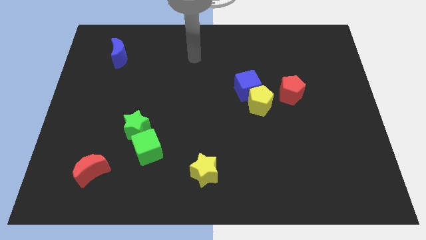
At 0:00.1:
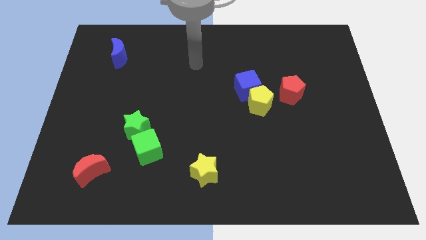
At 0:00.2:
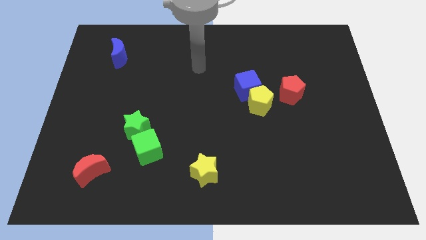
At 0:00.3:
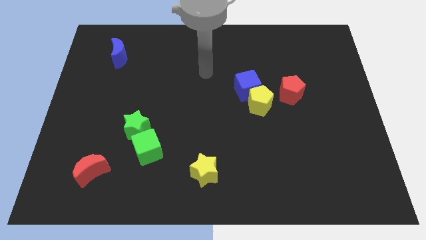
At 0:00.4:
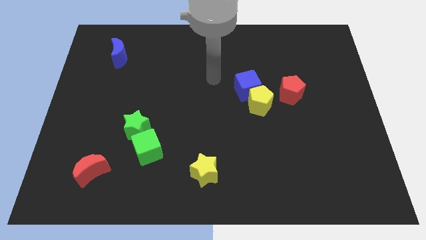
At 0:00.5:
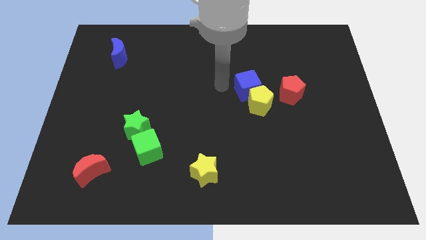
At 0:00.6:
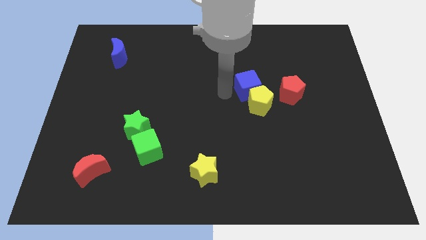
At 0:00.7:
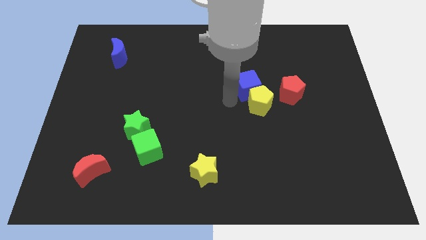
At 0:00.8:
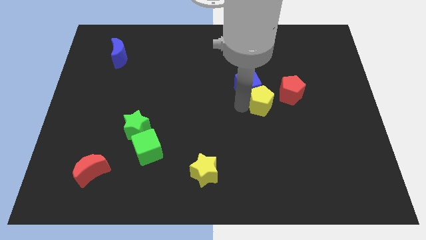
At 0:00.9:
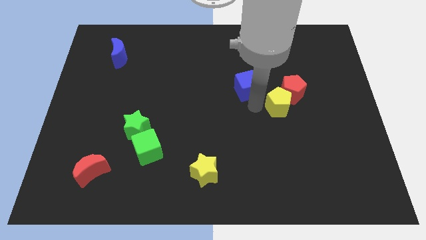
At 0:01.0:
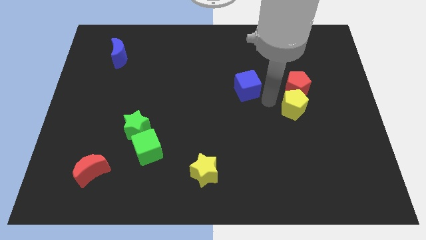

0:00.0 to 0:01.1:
move the blue cube away from the yellow pentagon

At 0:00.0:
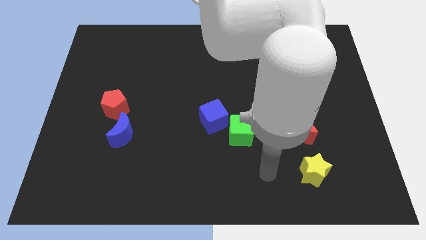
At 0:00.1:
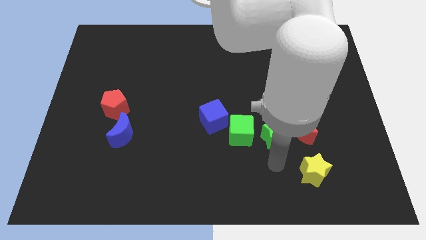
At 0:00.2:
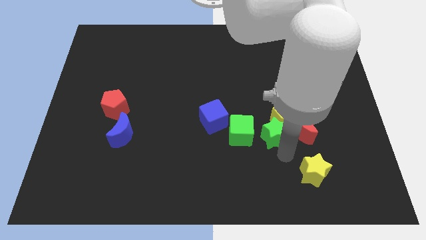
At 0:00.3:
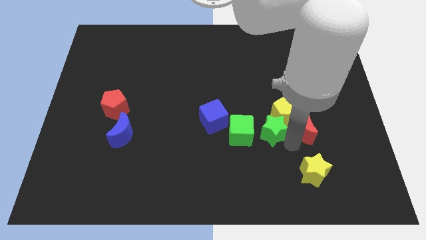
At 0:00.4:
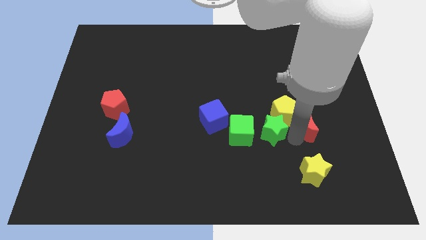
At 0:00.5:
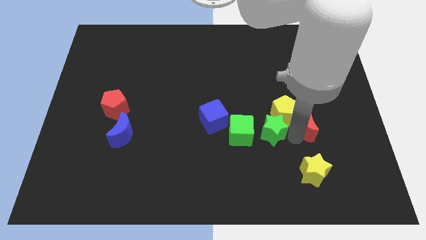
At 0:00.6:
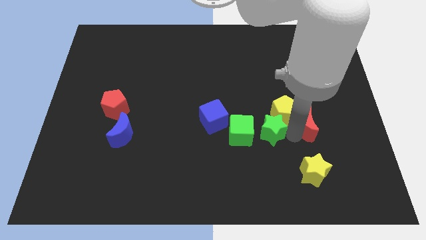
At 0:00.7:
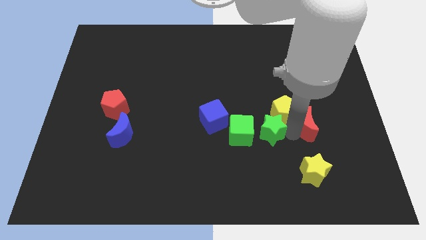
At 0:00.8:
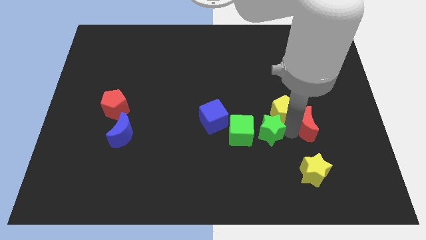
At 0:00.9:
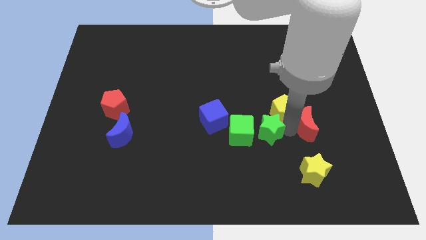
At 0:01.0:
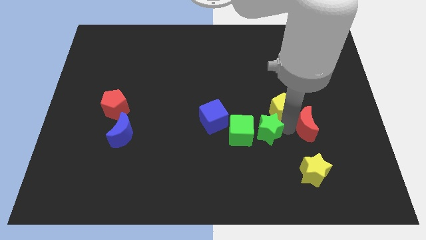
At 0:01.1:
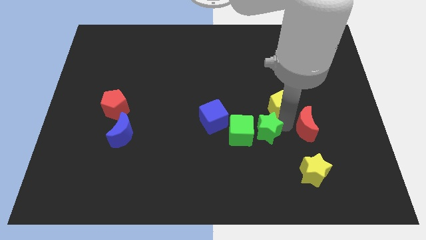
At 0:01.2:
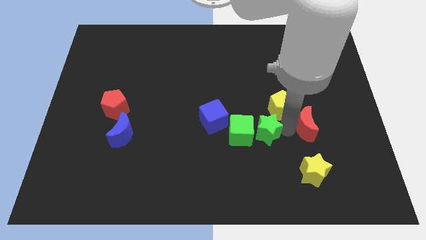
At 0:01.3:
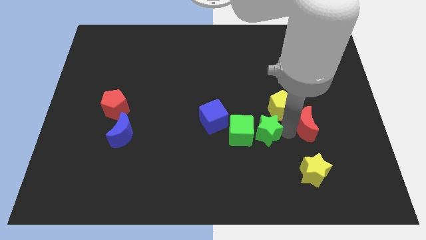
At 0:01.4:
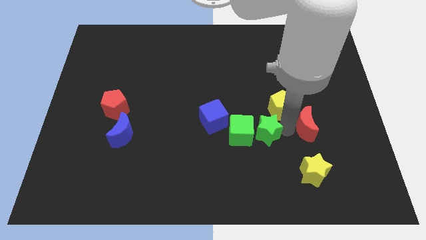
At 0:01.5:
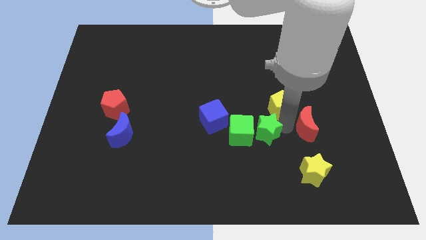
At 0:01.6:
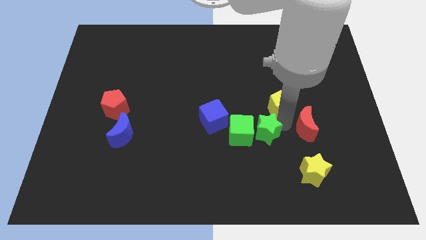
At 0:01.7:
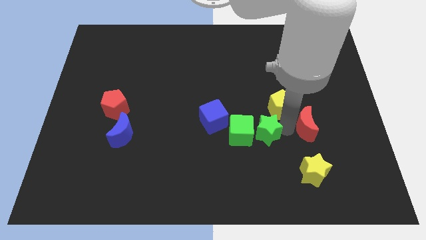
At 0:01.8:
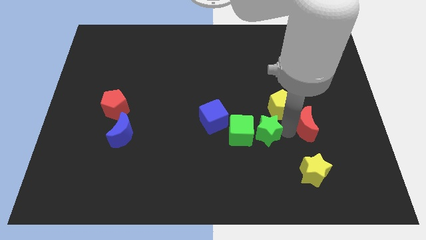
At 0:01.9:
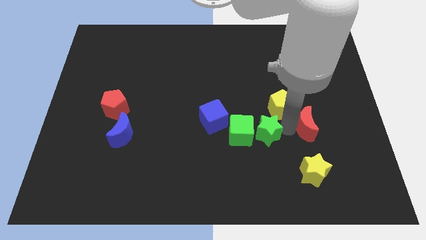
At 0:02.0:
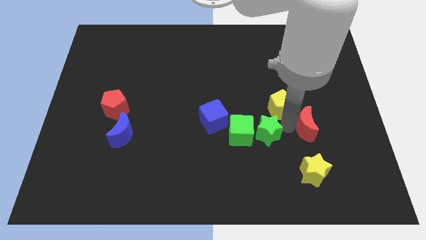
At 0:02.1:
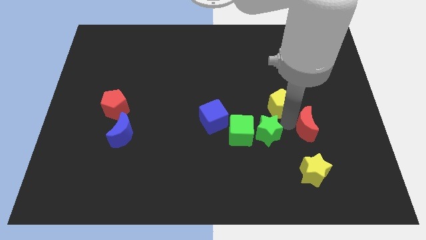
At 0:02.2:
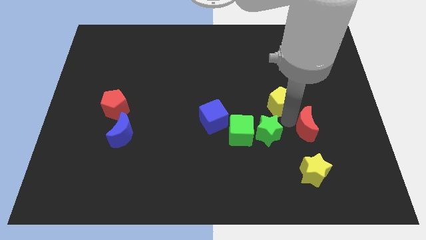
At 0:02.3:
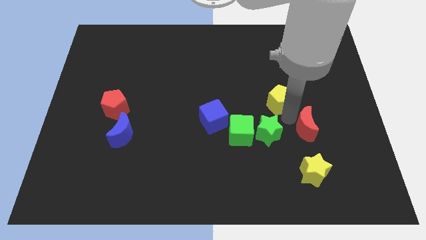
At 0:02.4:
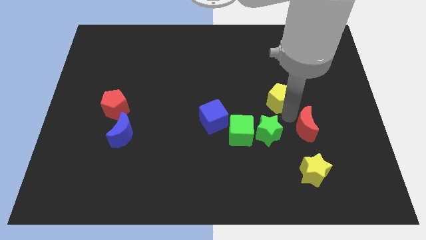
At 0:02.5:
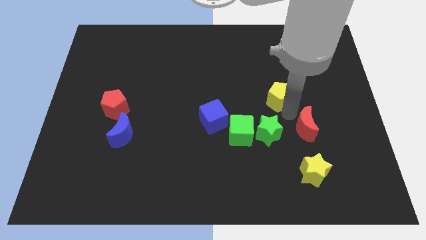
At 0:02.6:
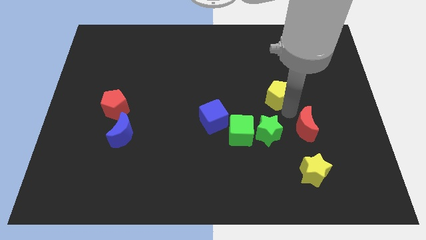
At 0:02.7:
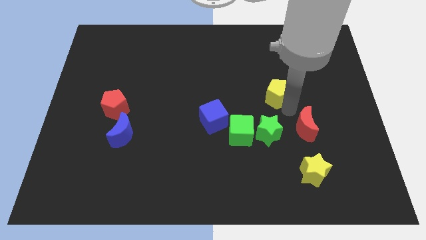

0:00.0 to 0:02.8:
separate the yellow pentagon from the red moon and green star

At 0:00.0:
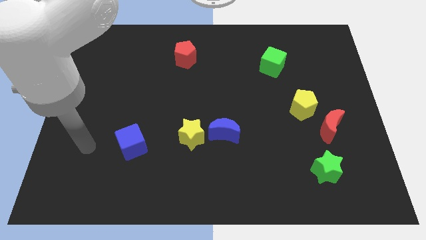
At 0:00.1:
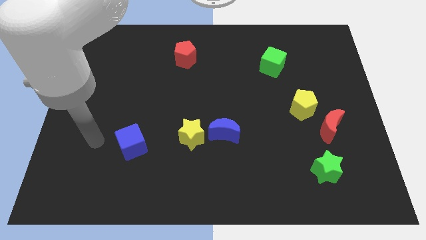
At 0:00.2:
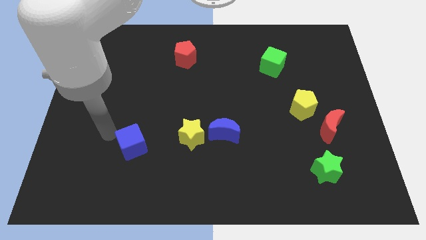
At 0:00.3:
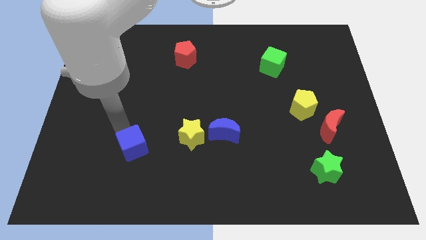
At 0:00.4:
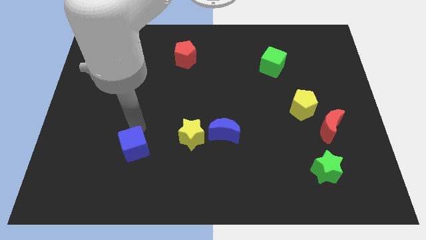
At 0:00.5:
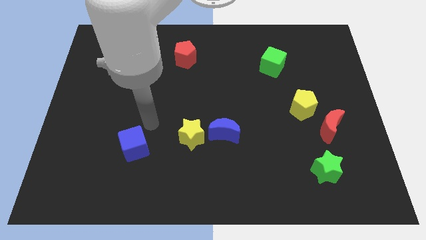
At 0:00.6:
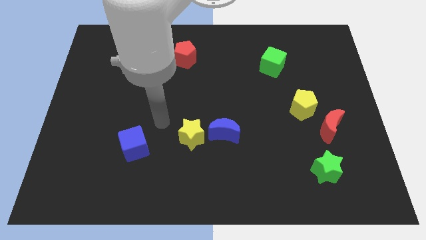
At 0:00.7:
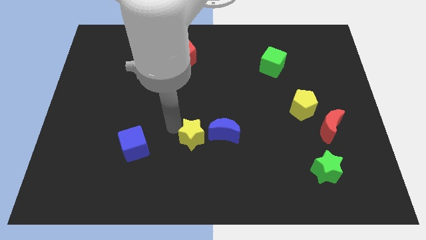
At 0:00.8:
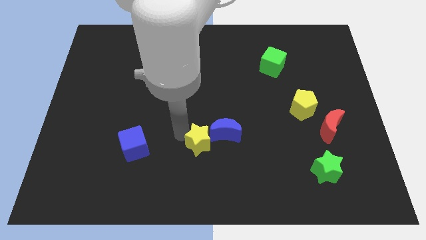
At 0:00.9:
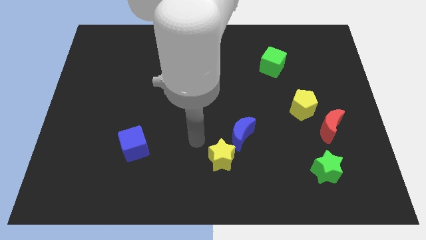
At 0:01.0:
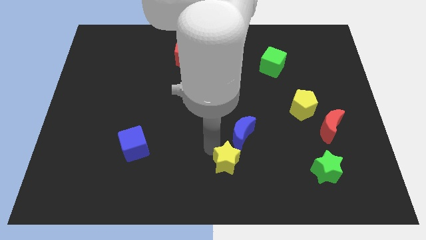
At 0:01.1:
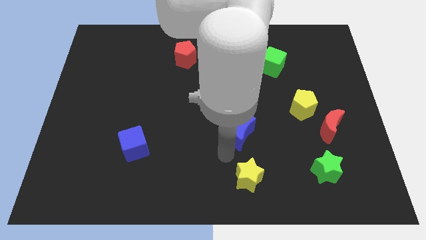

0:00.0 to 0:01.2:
pull the blue moon apart from the yellow star

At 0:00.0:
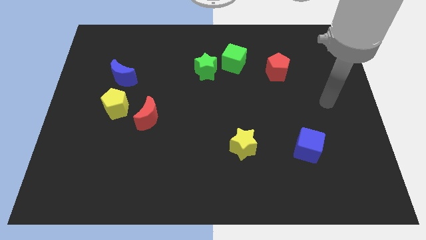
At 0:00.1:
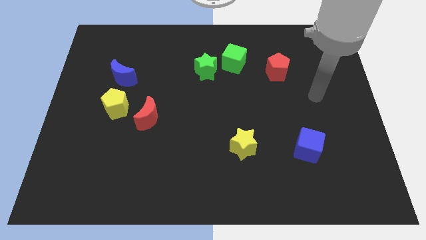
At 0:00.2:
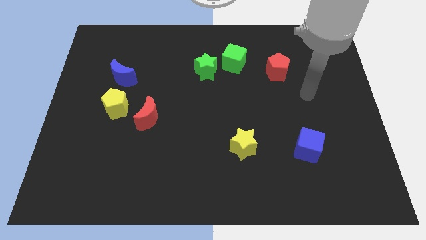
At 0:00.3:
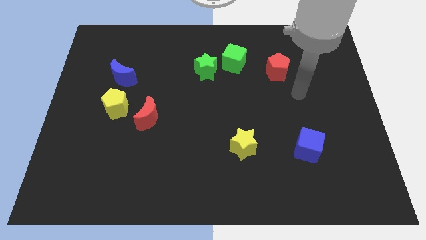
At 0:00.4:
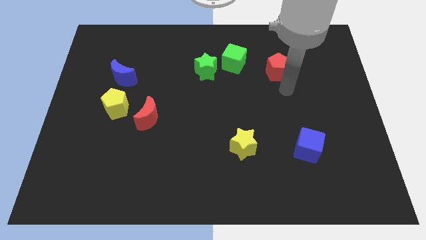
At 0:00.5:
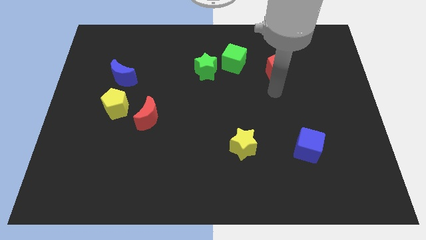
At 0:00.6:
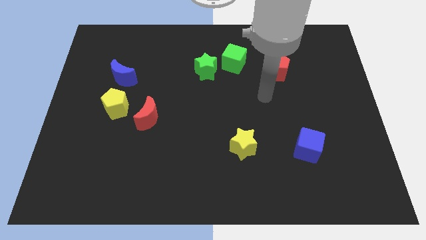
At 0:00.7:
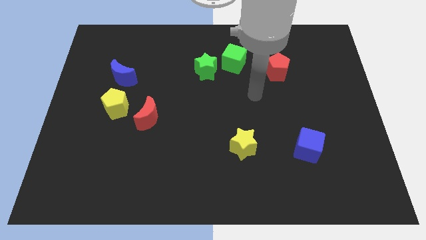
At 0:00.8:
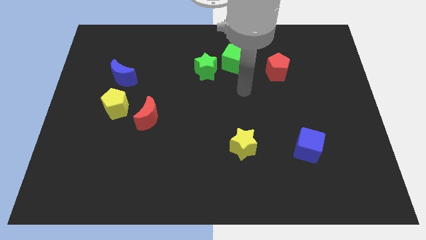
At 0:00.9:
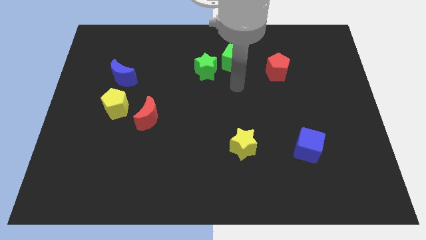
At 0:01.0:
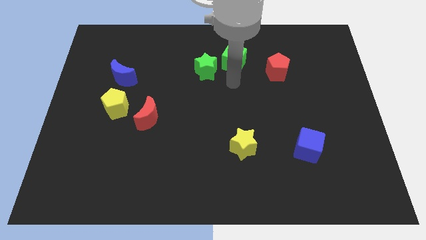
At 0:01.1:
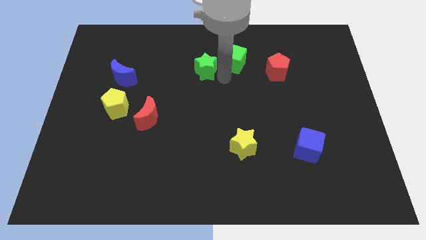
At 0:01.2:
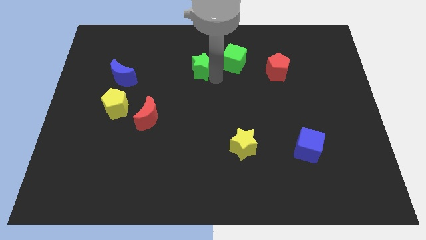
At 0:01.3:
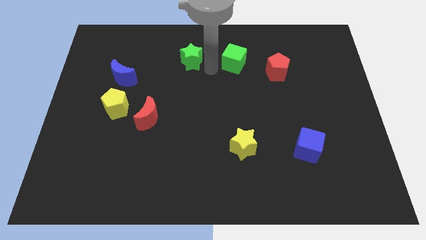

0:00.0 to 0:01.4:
move the green cube away from the green star

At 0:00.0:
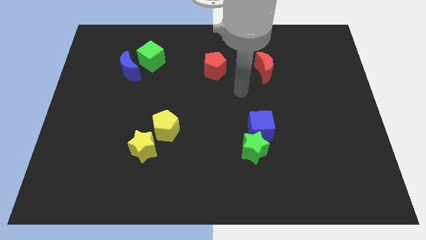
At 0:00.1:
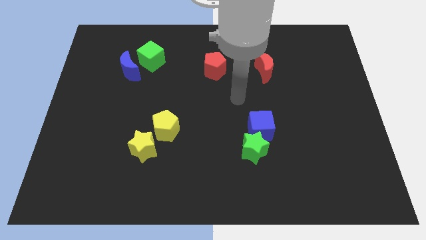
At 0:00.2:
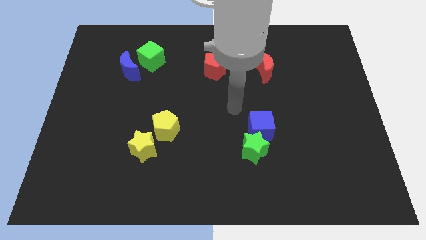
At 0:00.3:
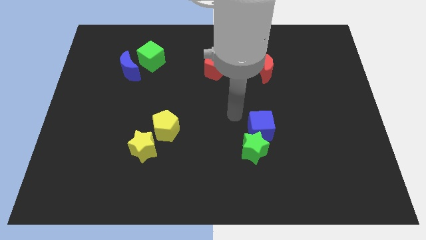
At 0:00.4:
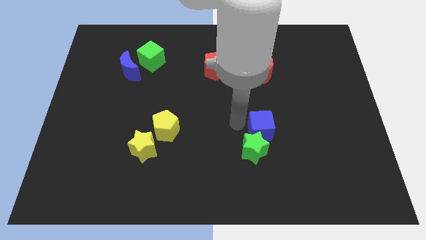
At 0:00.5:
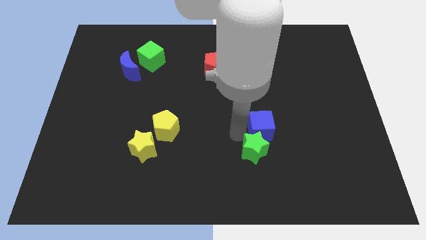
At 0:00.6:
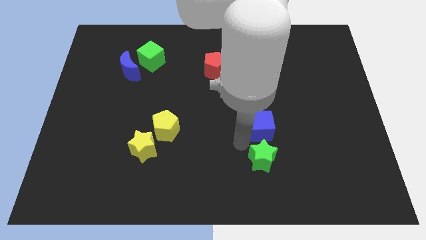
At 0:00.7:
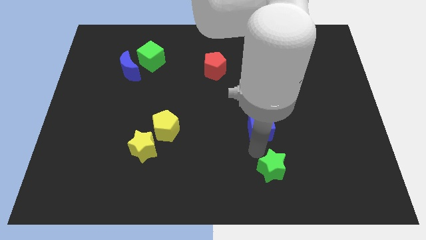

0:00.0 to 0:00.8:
pull the blue cube apart from the green star

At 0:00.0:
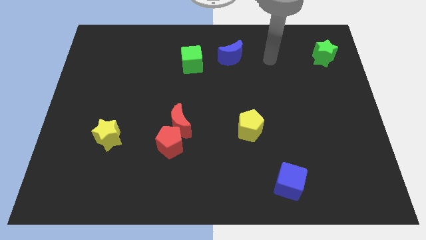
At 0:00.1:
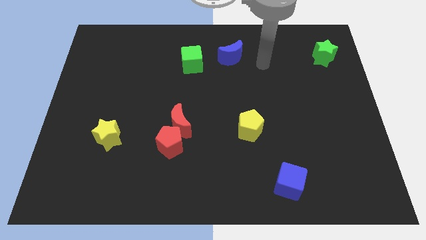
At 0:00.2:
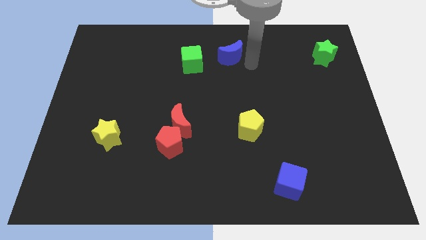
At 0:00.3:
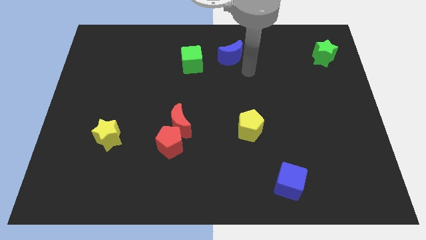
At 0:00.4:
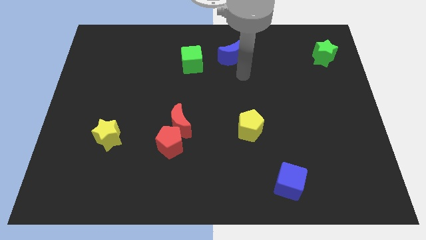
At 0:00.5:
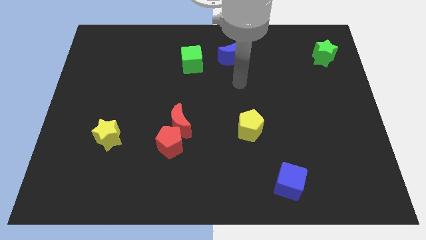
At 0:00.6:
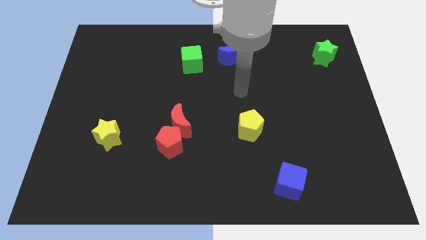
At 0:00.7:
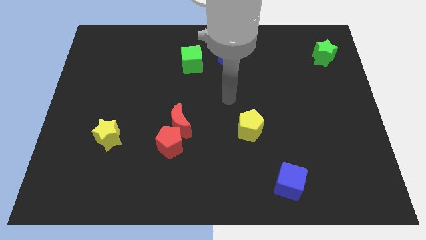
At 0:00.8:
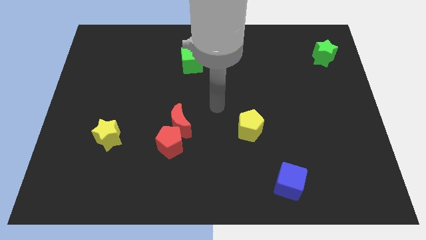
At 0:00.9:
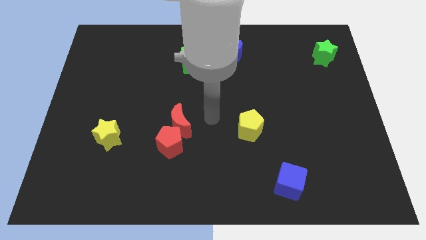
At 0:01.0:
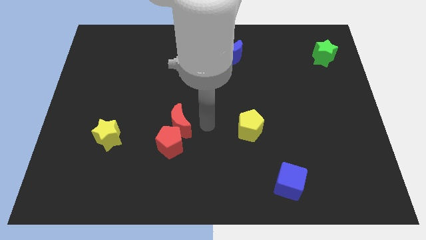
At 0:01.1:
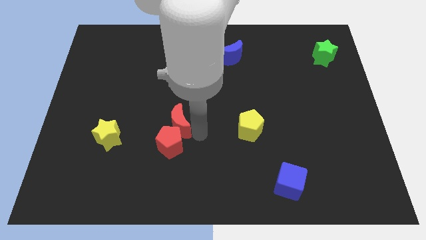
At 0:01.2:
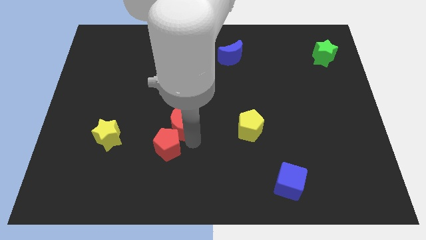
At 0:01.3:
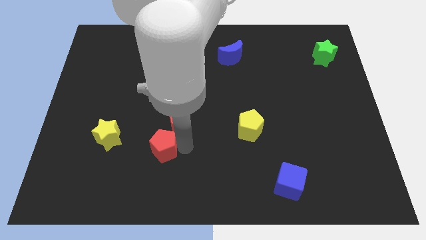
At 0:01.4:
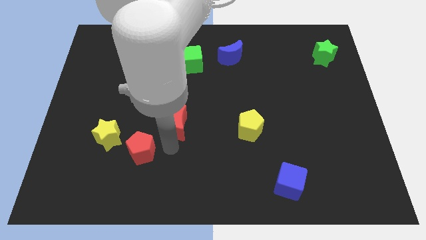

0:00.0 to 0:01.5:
move the red moon away from the red pentagon

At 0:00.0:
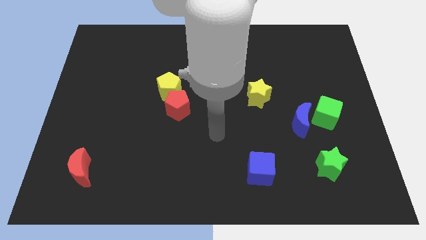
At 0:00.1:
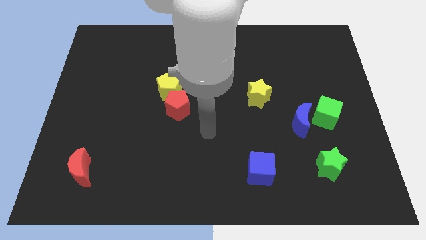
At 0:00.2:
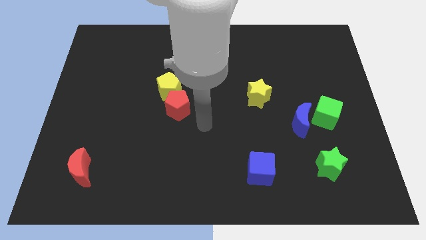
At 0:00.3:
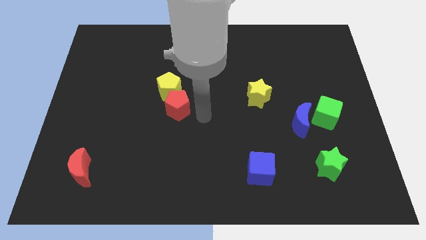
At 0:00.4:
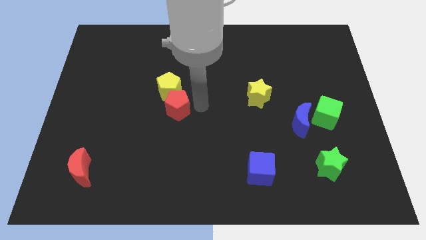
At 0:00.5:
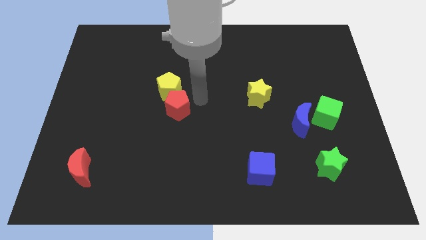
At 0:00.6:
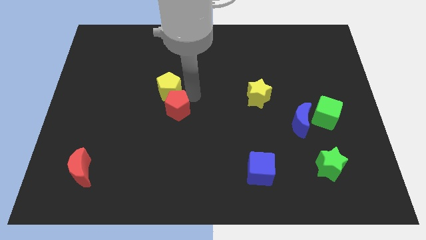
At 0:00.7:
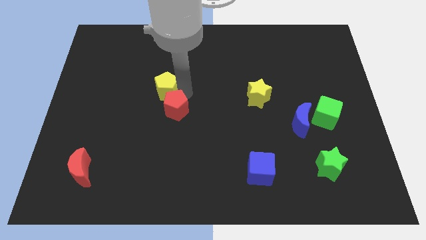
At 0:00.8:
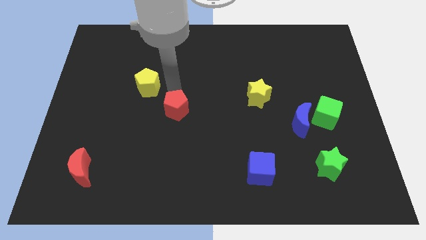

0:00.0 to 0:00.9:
separate the red pentagon from the yellow pentagon
